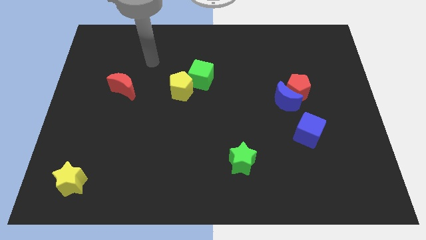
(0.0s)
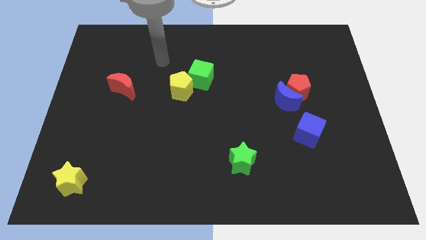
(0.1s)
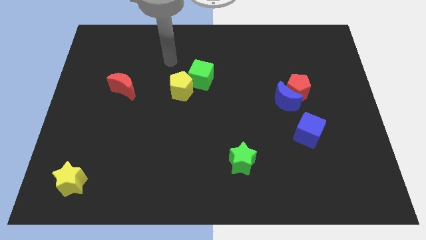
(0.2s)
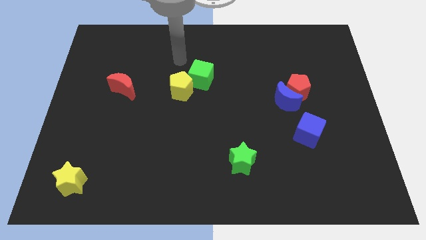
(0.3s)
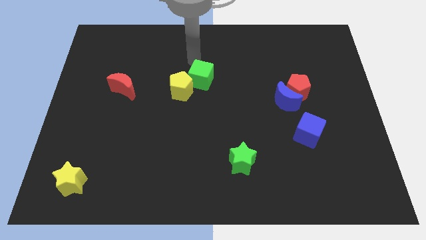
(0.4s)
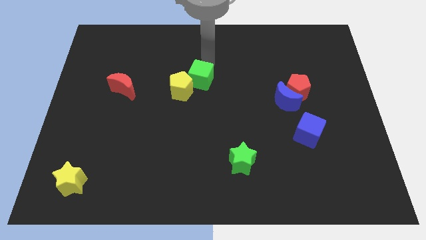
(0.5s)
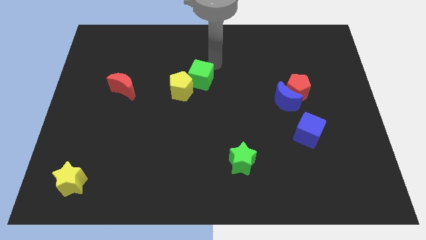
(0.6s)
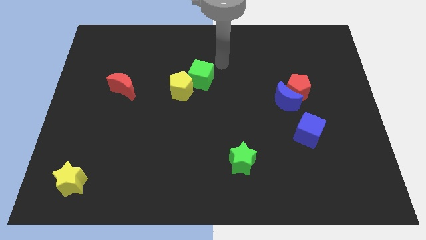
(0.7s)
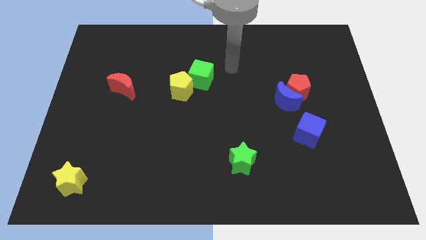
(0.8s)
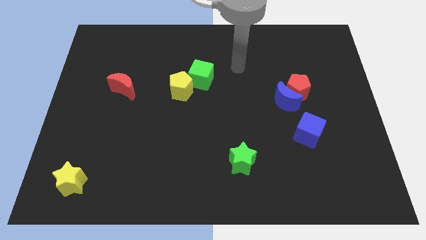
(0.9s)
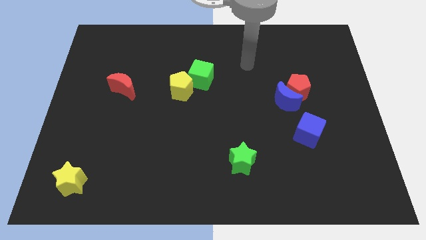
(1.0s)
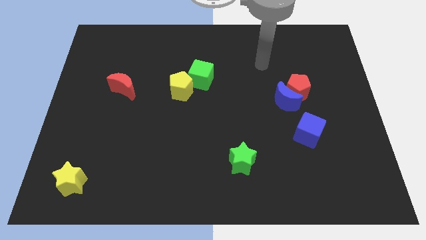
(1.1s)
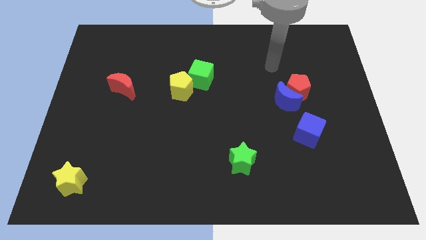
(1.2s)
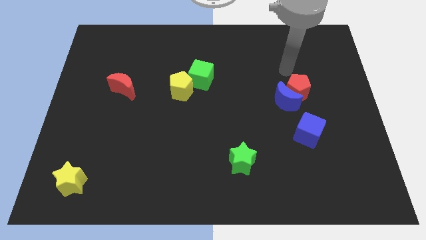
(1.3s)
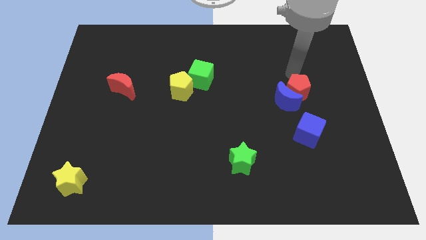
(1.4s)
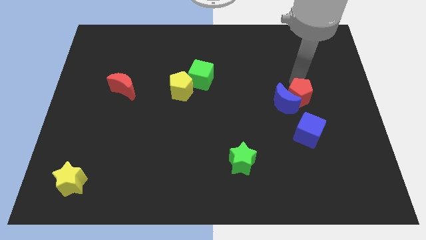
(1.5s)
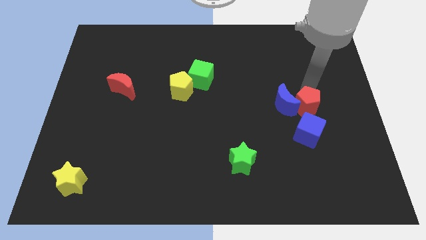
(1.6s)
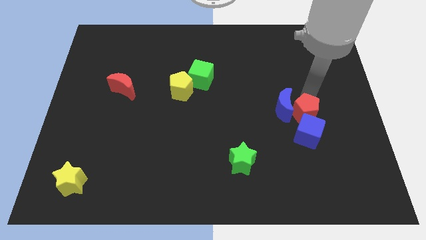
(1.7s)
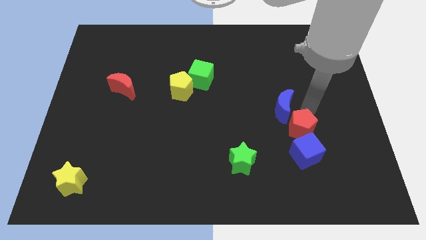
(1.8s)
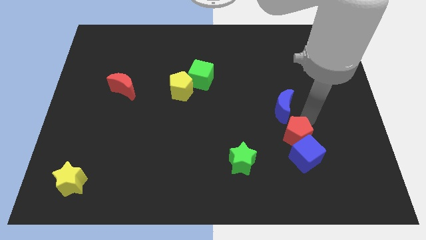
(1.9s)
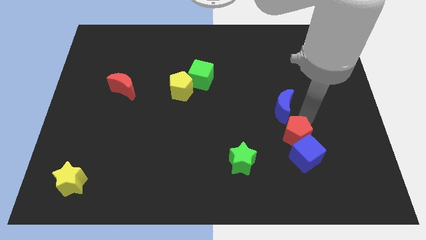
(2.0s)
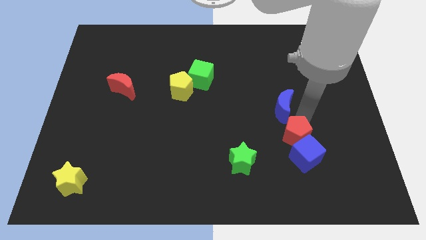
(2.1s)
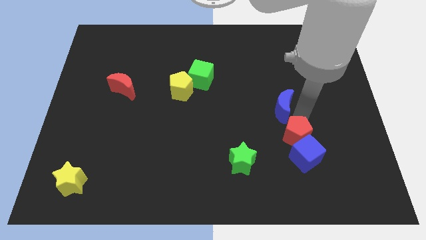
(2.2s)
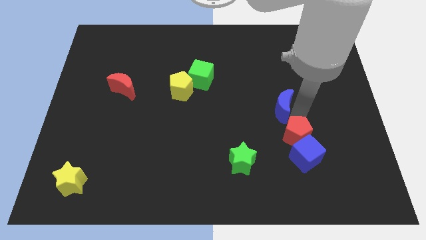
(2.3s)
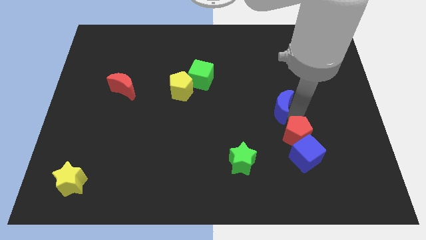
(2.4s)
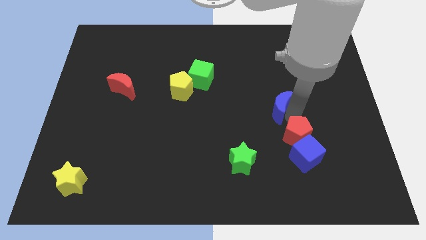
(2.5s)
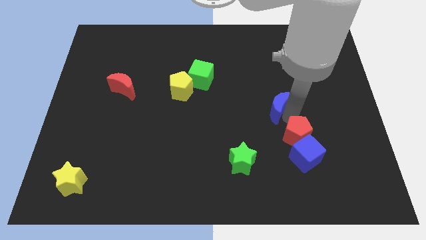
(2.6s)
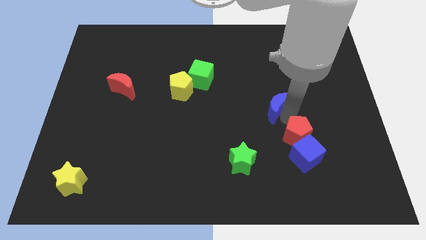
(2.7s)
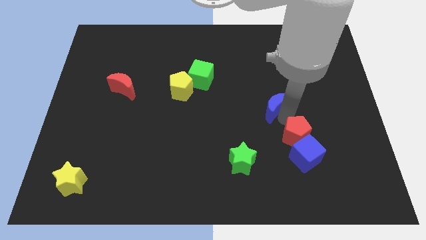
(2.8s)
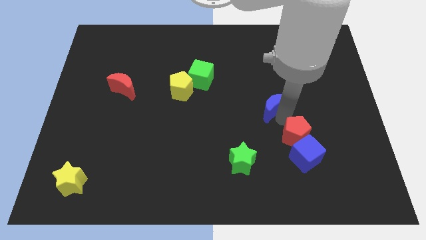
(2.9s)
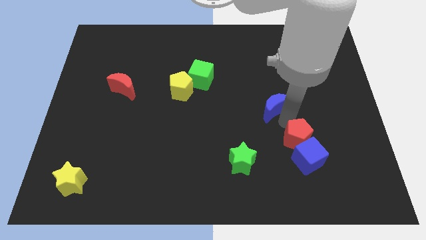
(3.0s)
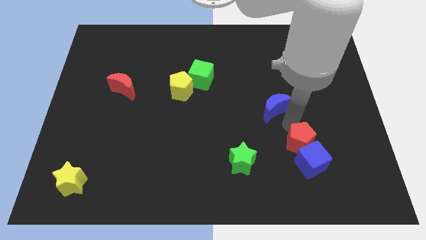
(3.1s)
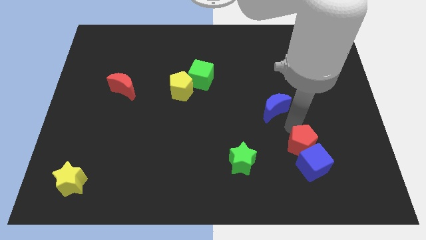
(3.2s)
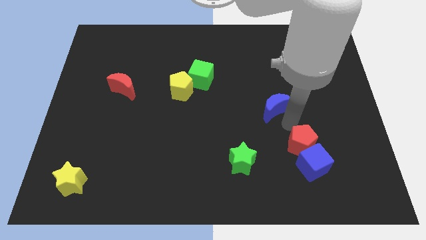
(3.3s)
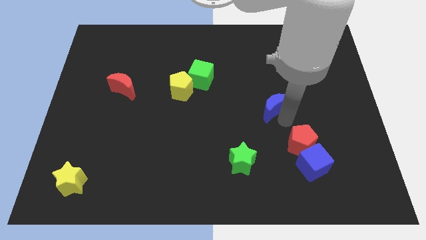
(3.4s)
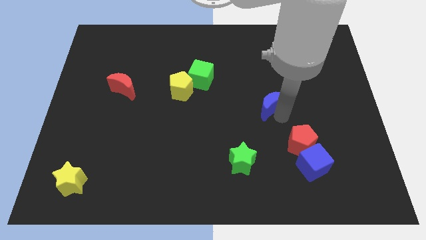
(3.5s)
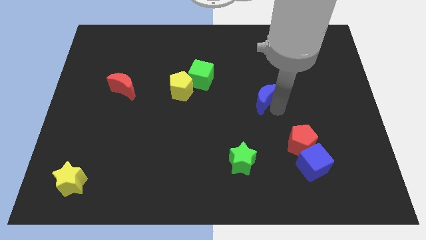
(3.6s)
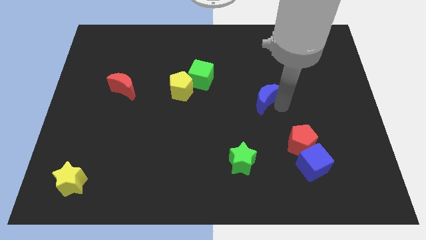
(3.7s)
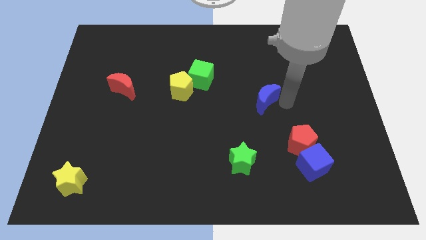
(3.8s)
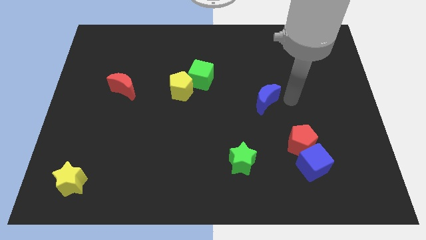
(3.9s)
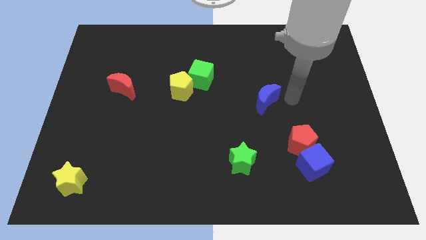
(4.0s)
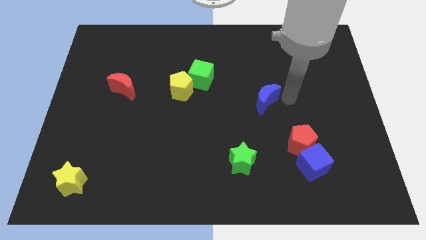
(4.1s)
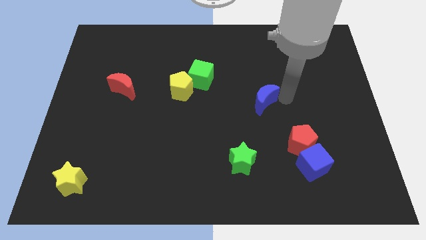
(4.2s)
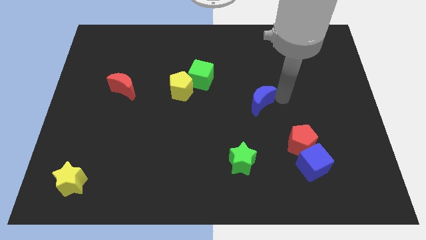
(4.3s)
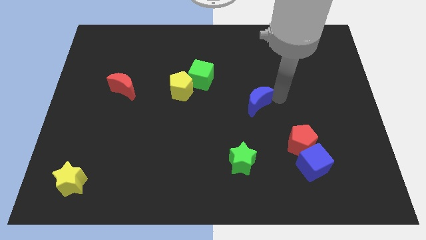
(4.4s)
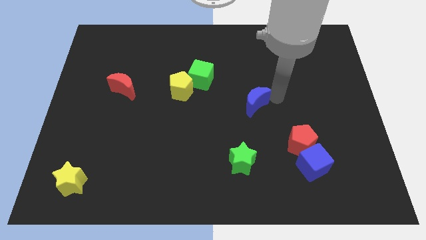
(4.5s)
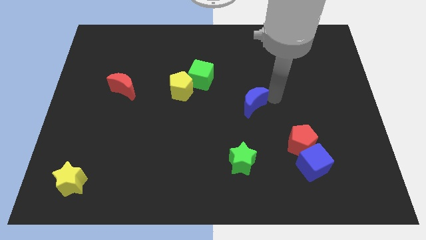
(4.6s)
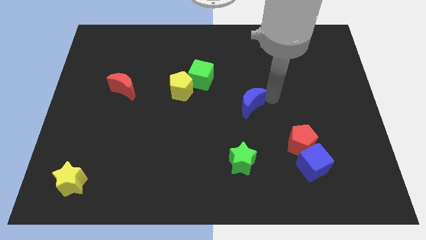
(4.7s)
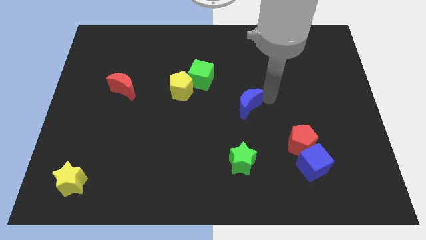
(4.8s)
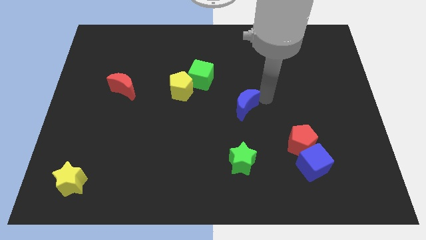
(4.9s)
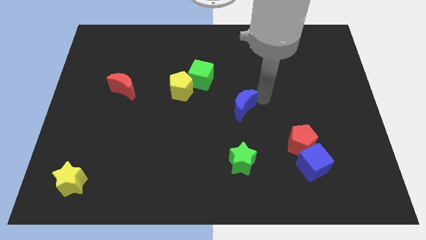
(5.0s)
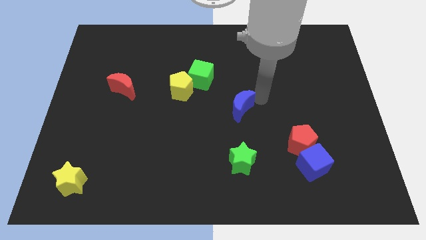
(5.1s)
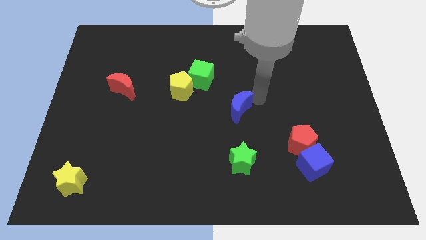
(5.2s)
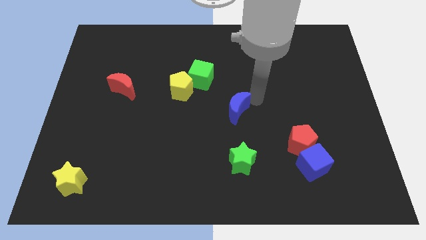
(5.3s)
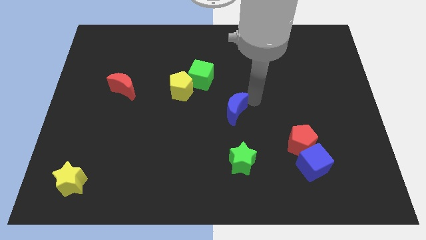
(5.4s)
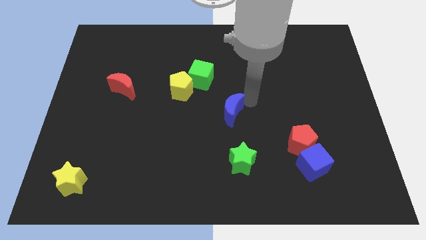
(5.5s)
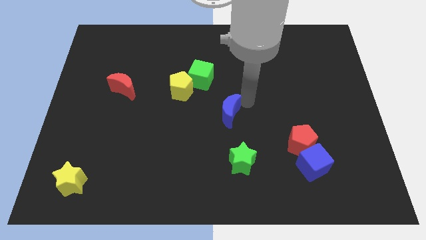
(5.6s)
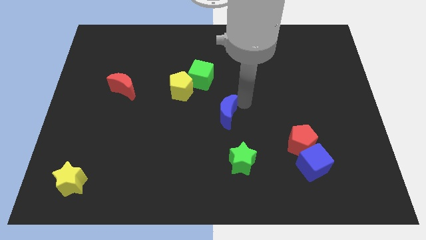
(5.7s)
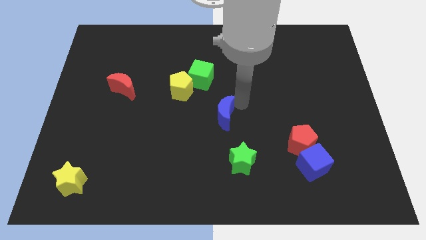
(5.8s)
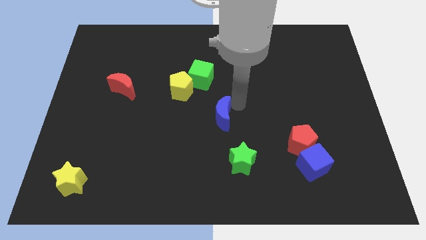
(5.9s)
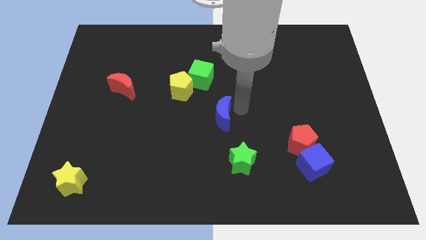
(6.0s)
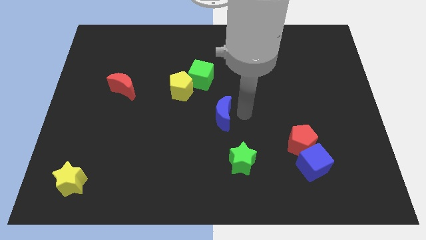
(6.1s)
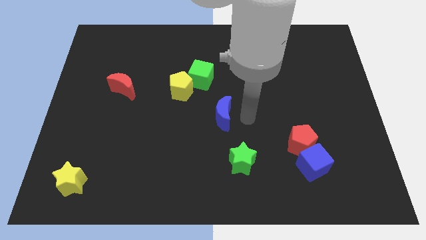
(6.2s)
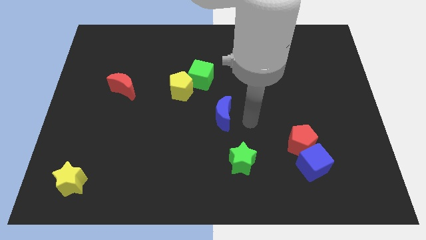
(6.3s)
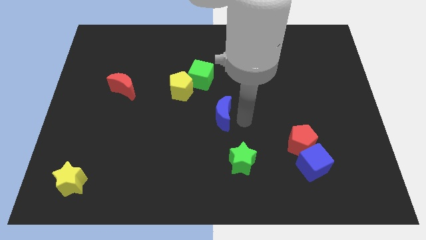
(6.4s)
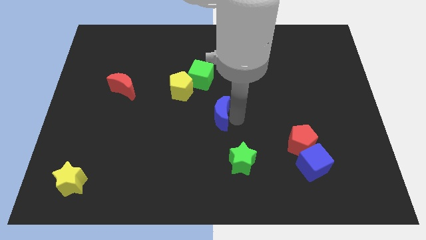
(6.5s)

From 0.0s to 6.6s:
put the blue moon to the bottom side of the green cube

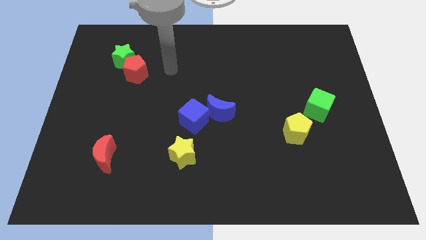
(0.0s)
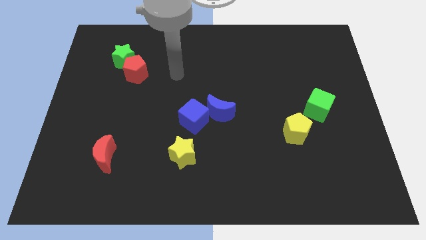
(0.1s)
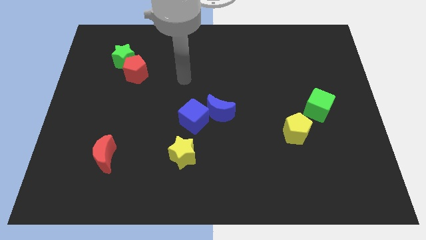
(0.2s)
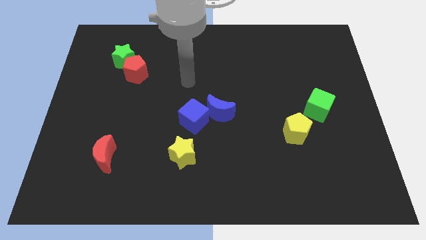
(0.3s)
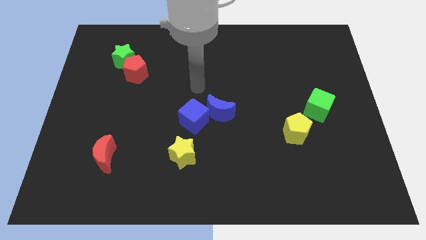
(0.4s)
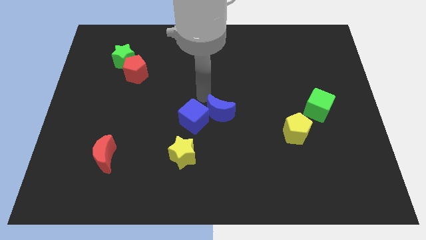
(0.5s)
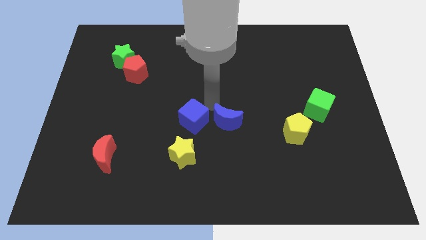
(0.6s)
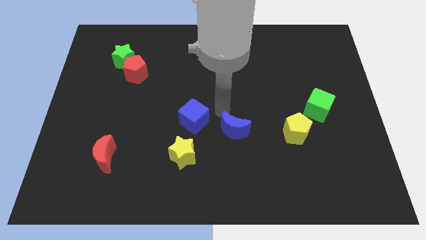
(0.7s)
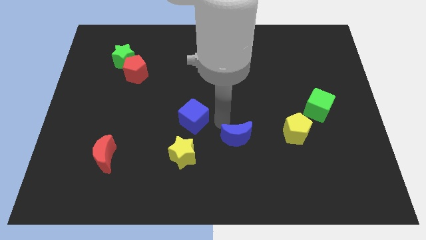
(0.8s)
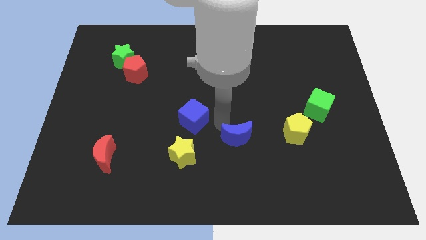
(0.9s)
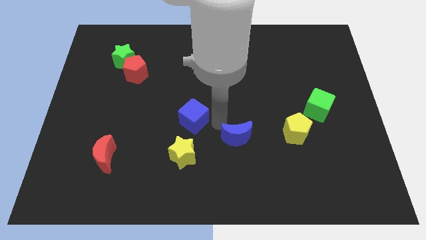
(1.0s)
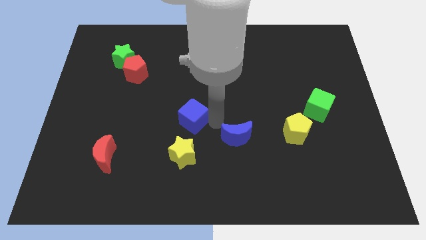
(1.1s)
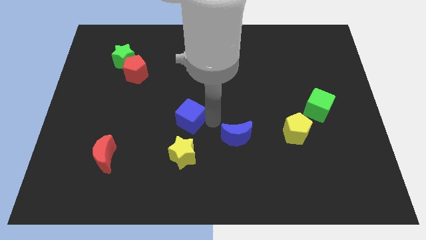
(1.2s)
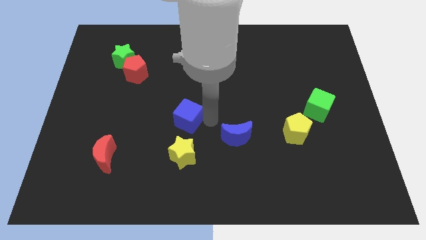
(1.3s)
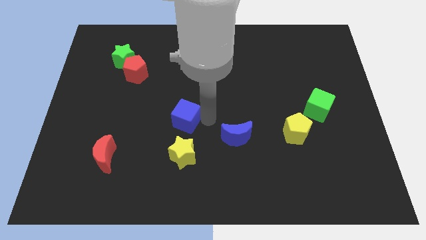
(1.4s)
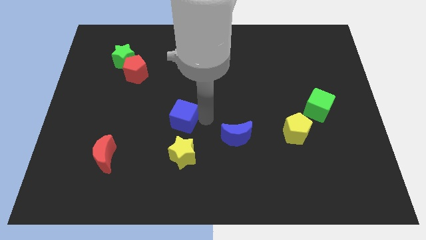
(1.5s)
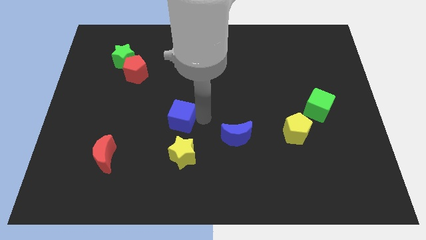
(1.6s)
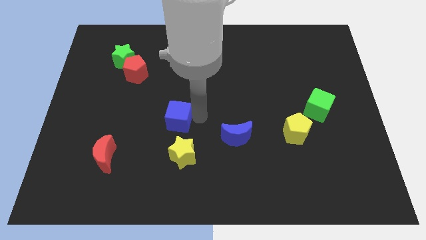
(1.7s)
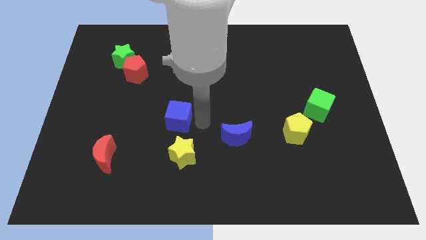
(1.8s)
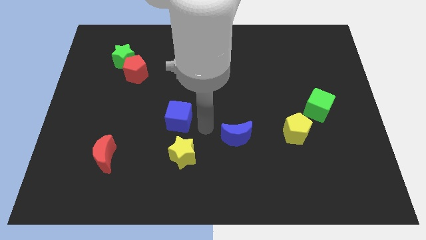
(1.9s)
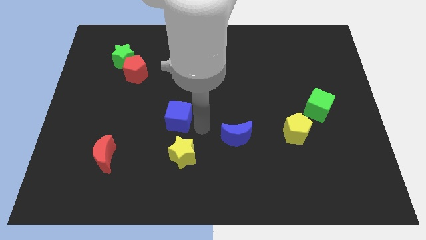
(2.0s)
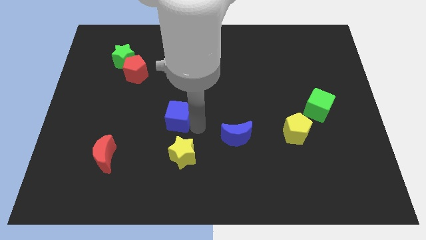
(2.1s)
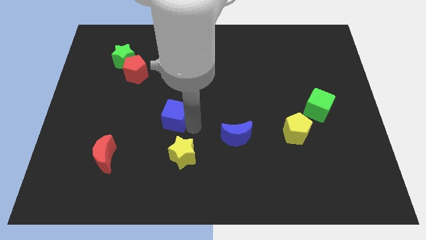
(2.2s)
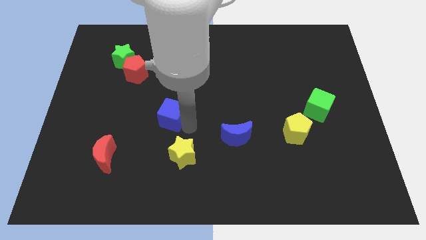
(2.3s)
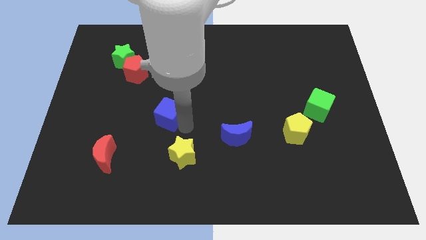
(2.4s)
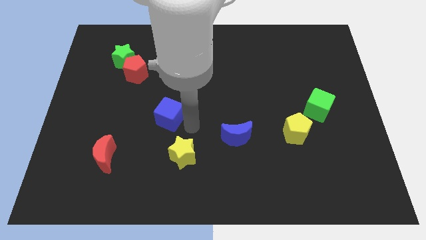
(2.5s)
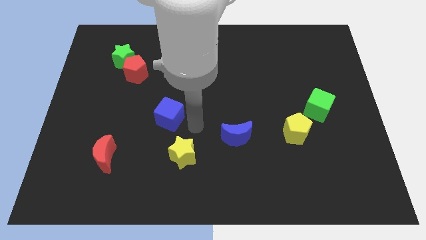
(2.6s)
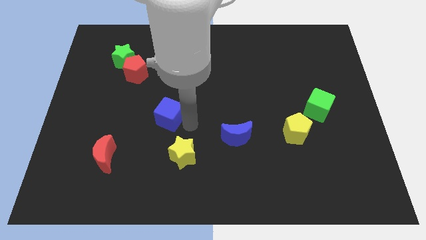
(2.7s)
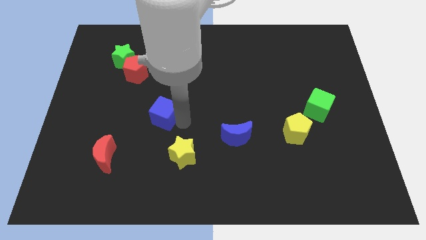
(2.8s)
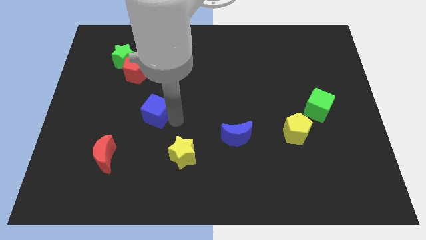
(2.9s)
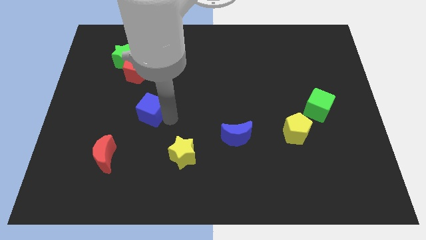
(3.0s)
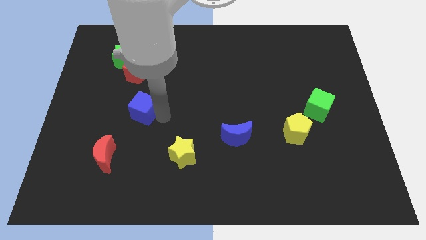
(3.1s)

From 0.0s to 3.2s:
push the blue cube to the bottom of the red pentagon
